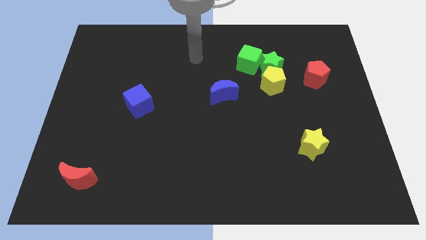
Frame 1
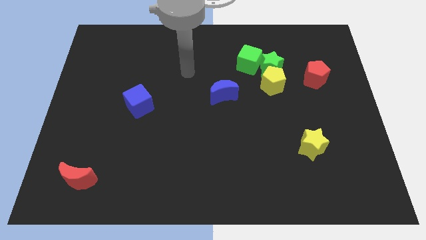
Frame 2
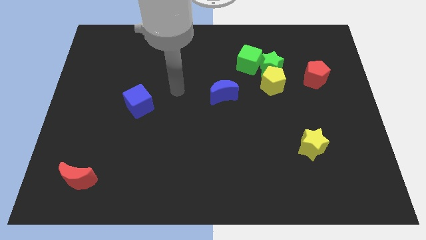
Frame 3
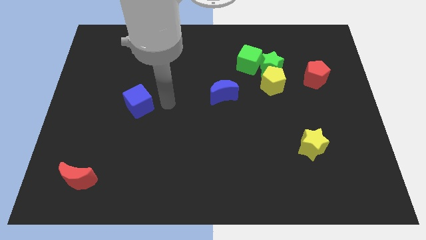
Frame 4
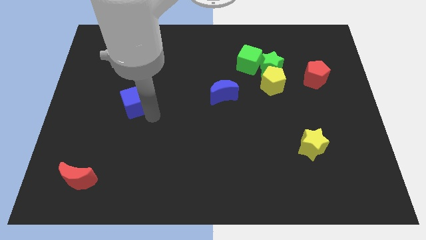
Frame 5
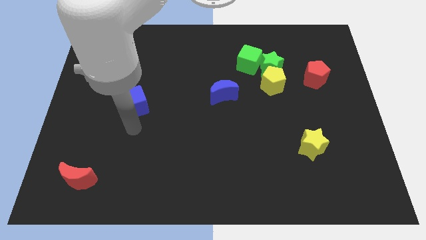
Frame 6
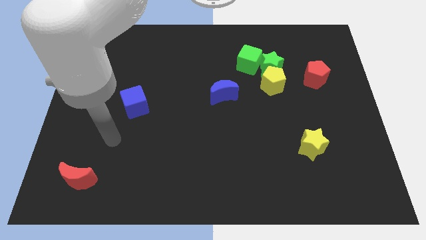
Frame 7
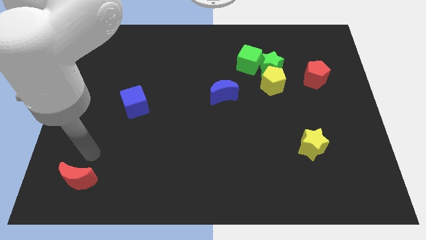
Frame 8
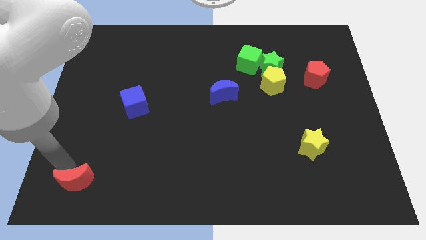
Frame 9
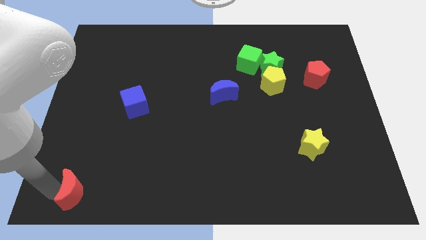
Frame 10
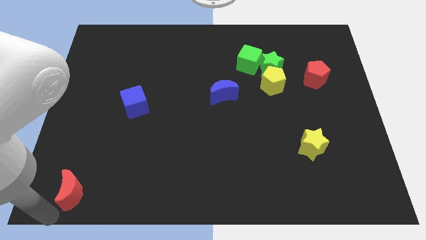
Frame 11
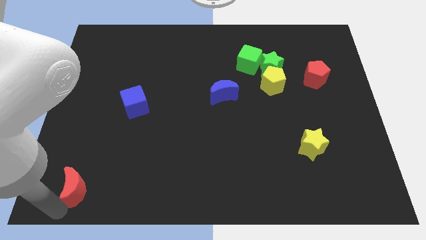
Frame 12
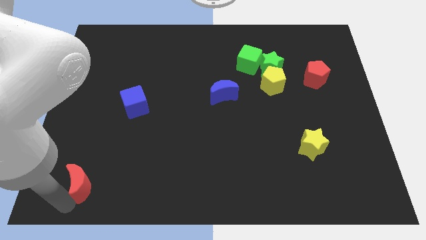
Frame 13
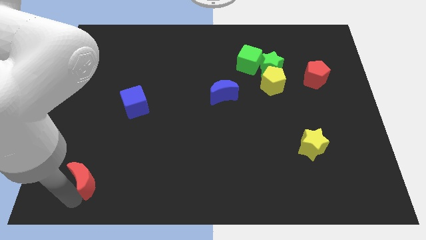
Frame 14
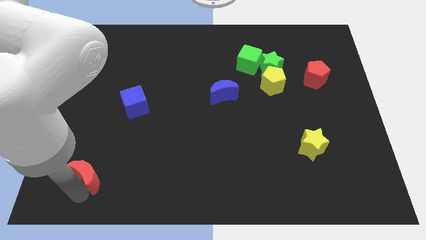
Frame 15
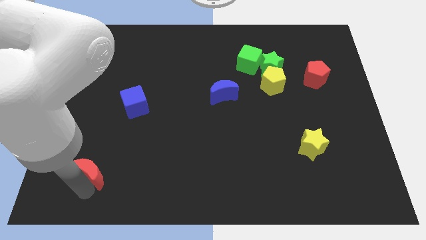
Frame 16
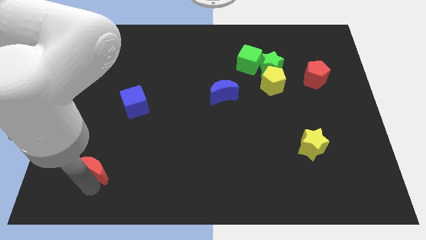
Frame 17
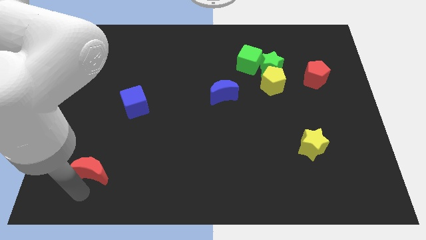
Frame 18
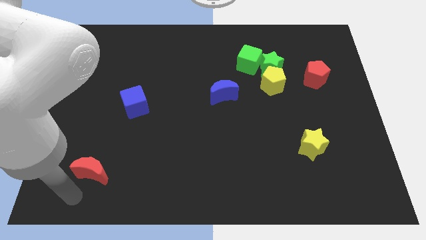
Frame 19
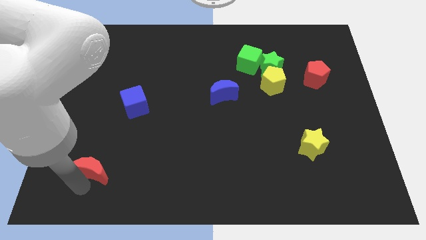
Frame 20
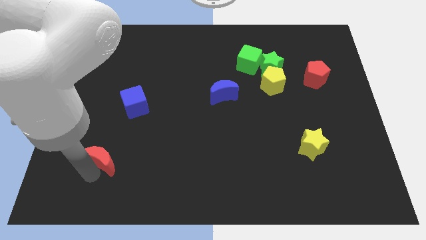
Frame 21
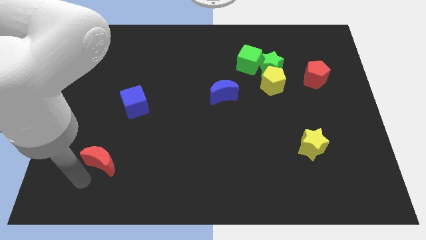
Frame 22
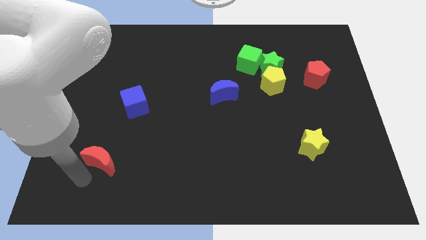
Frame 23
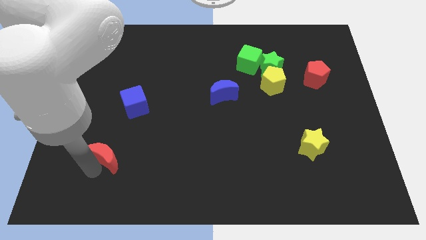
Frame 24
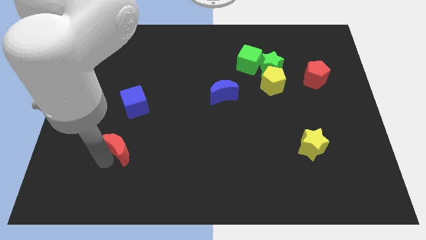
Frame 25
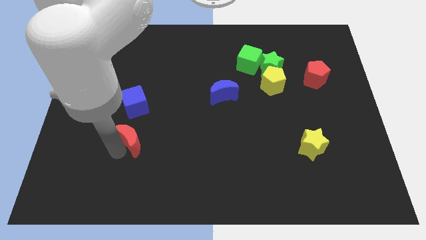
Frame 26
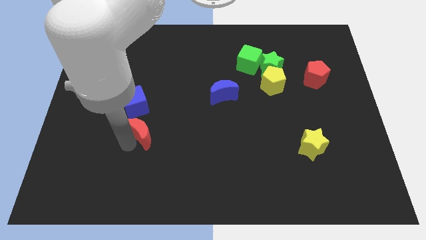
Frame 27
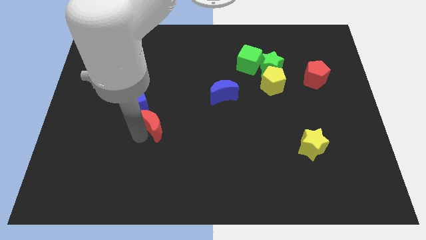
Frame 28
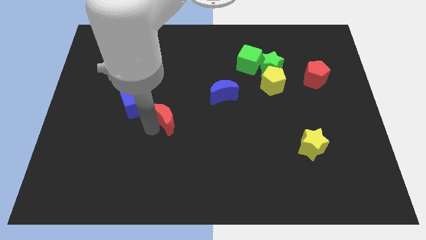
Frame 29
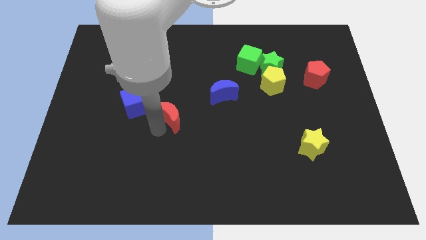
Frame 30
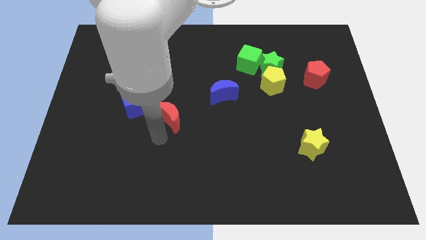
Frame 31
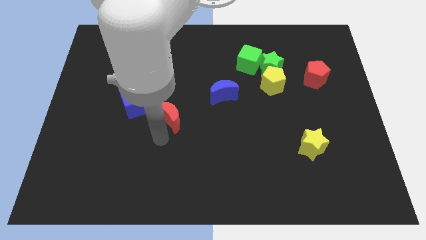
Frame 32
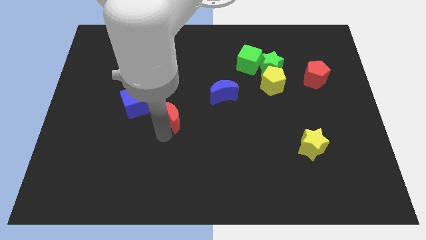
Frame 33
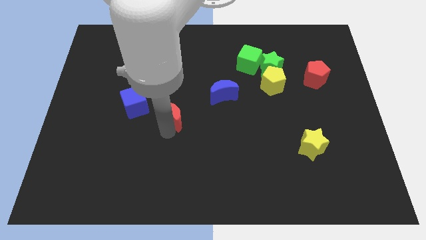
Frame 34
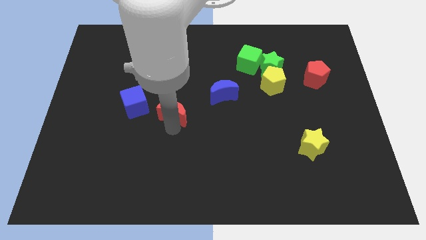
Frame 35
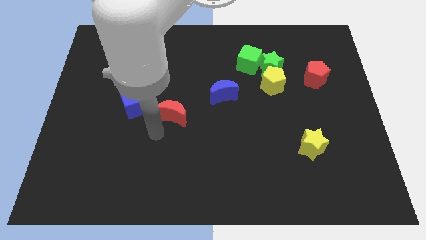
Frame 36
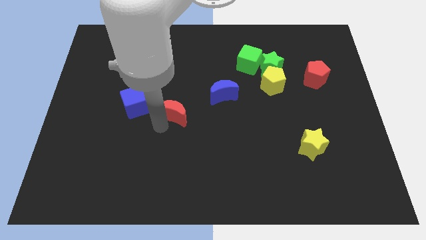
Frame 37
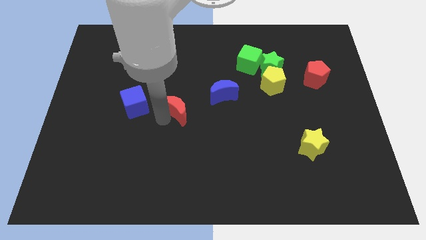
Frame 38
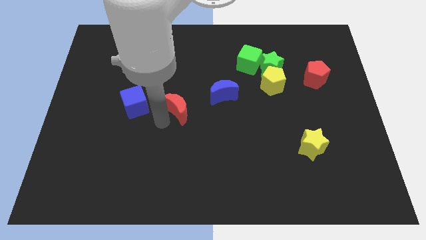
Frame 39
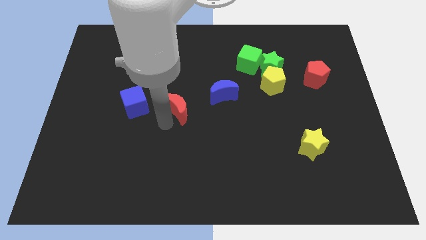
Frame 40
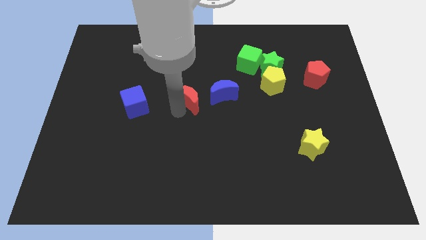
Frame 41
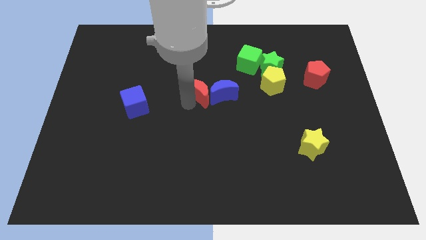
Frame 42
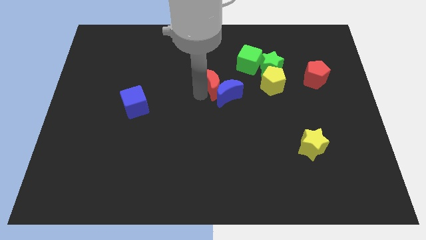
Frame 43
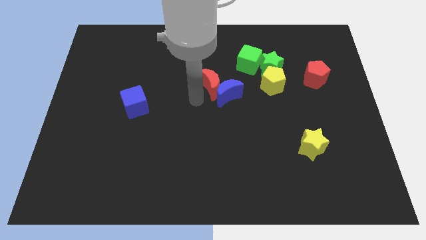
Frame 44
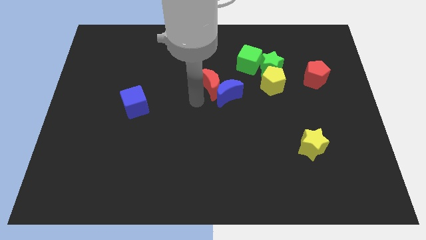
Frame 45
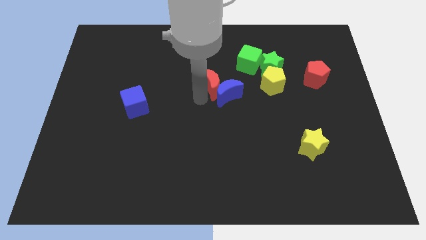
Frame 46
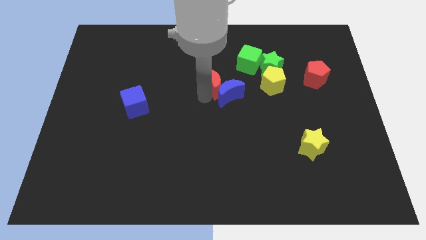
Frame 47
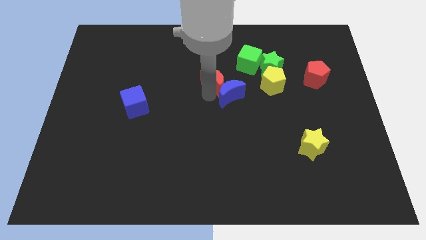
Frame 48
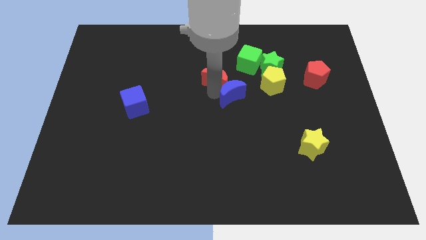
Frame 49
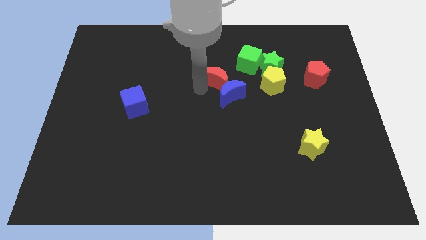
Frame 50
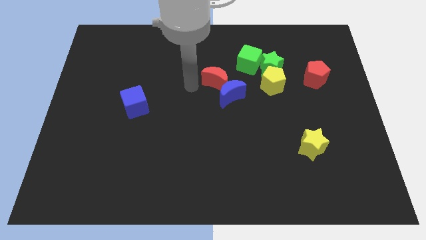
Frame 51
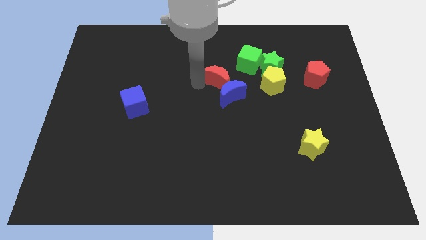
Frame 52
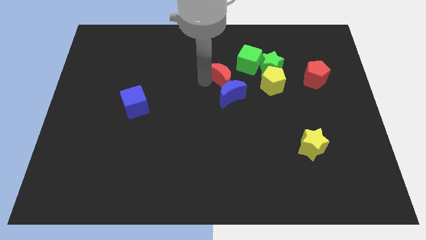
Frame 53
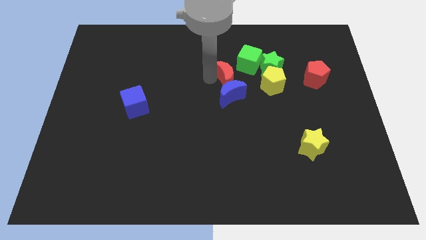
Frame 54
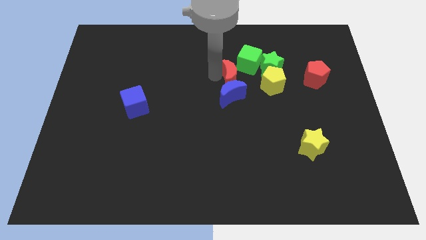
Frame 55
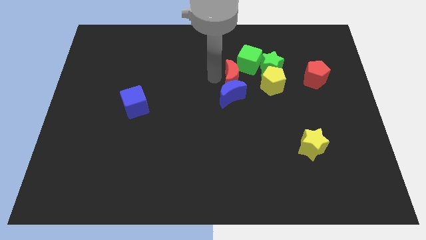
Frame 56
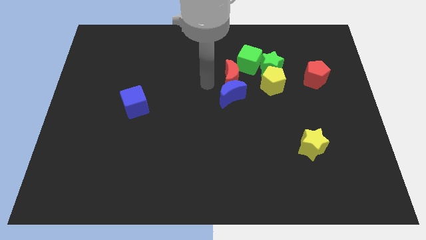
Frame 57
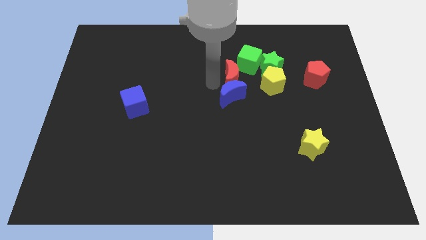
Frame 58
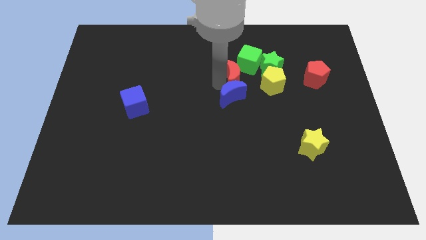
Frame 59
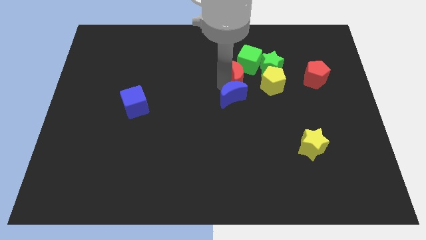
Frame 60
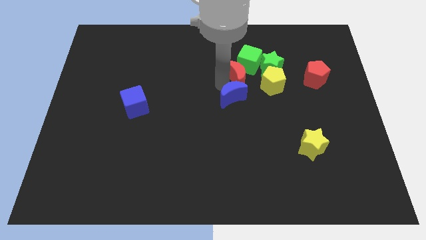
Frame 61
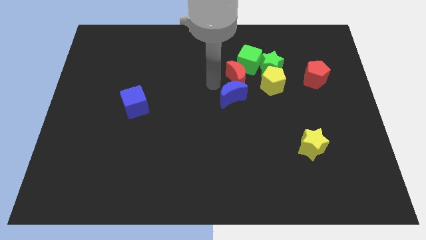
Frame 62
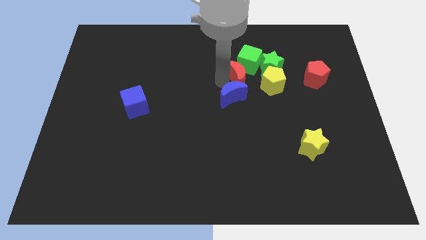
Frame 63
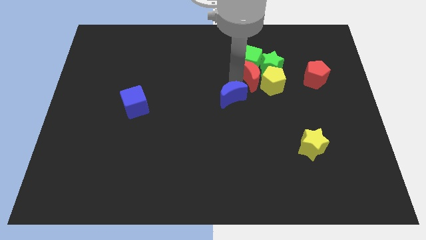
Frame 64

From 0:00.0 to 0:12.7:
put the red moon close to the green star

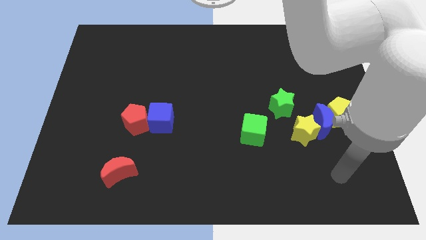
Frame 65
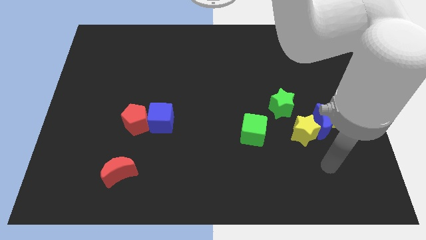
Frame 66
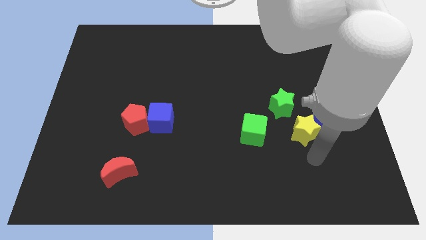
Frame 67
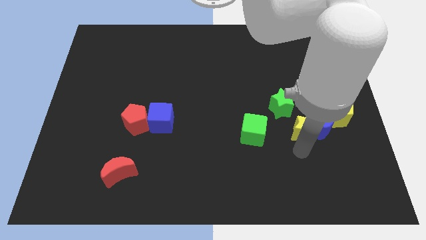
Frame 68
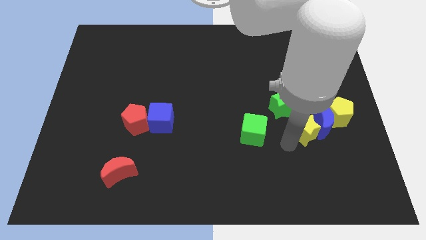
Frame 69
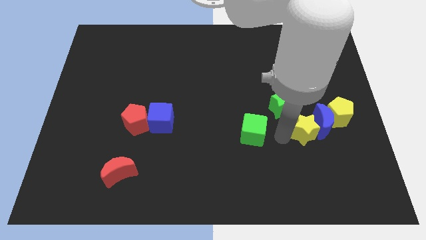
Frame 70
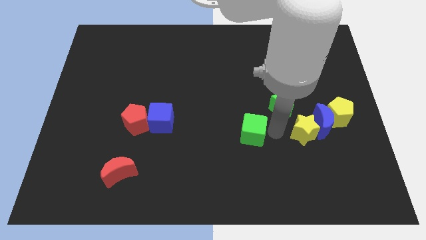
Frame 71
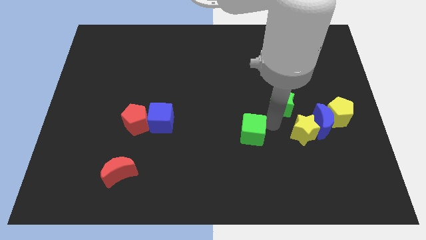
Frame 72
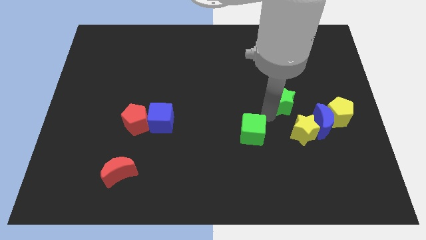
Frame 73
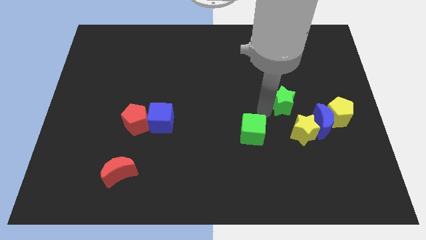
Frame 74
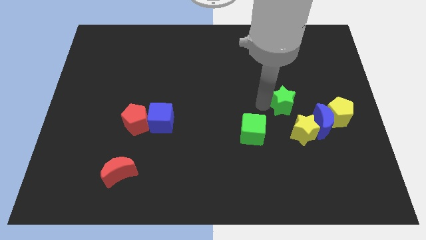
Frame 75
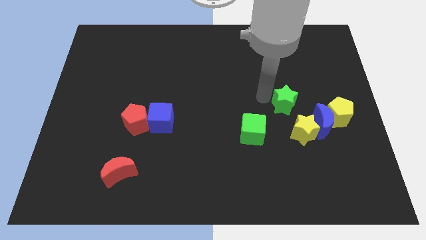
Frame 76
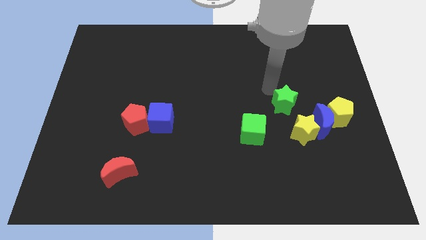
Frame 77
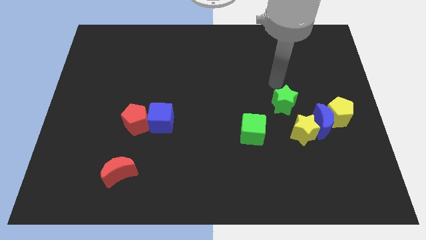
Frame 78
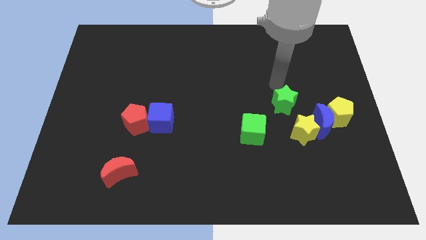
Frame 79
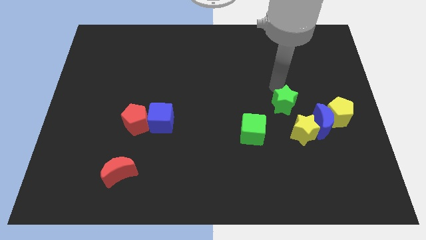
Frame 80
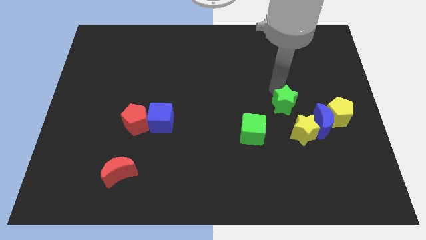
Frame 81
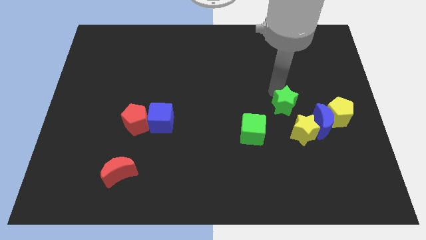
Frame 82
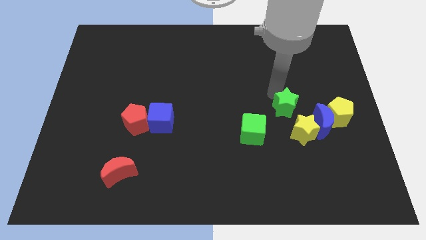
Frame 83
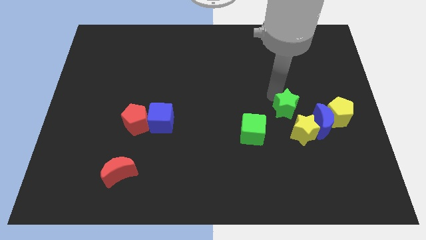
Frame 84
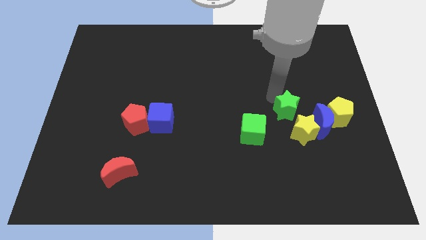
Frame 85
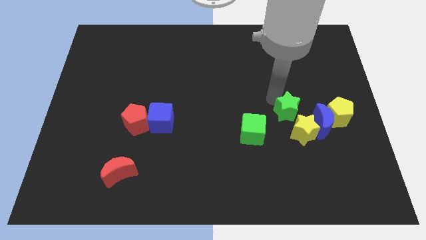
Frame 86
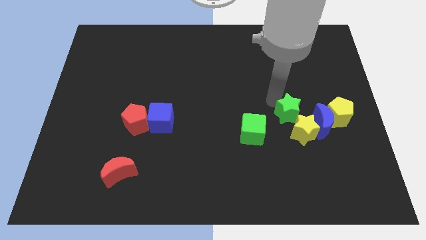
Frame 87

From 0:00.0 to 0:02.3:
put the green star next to the yellow star
